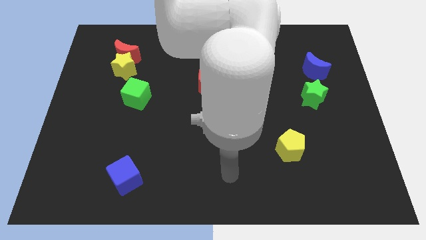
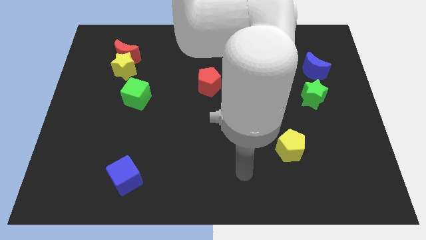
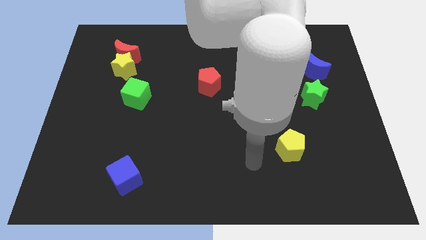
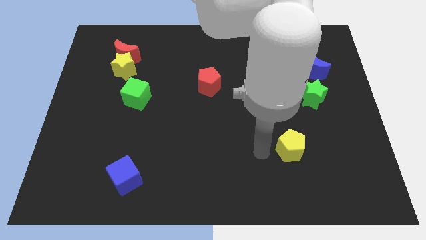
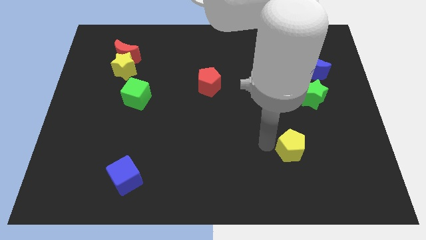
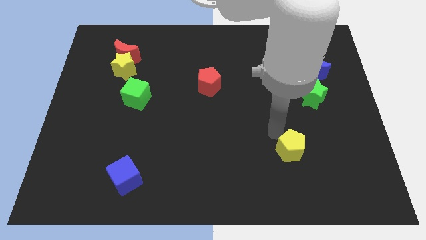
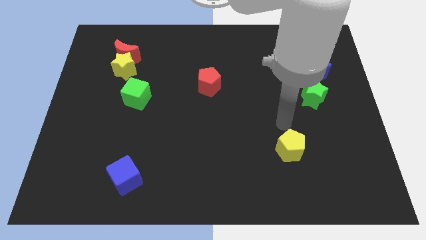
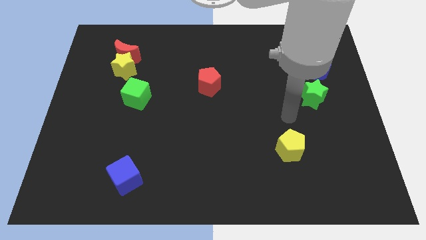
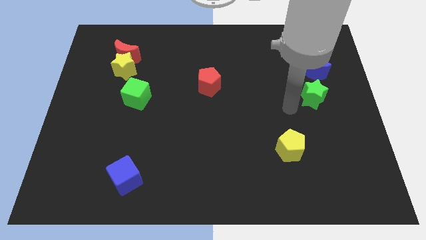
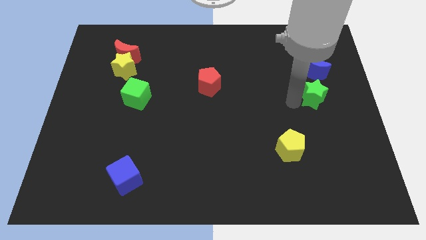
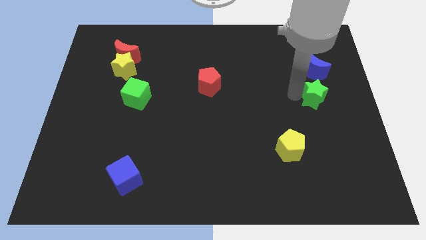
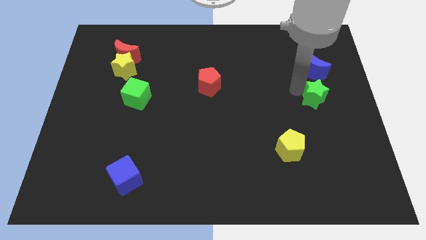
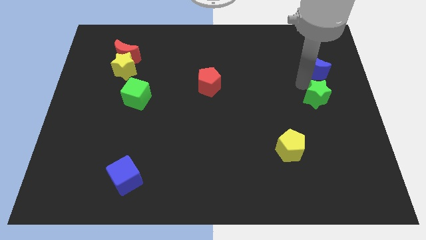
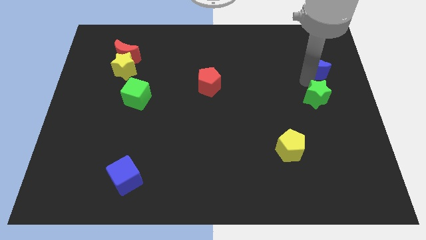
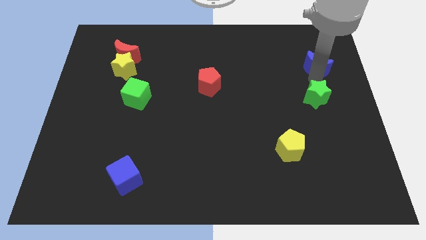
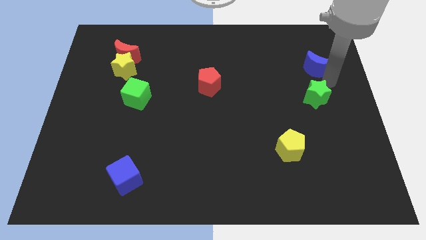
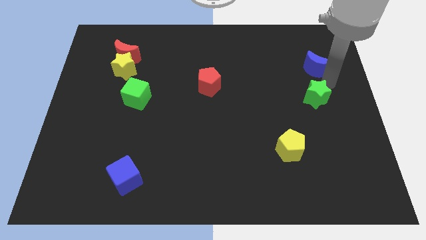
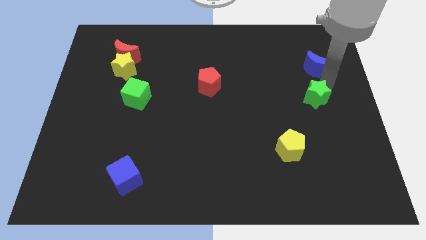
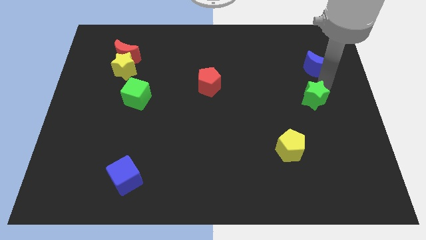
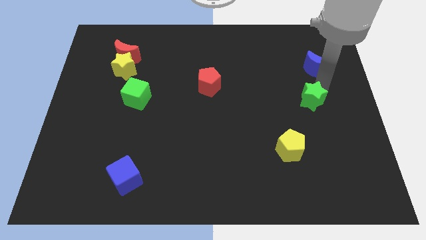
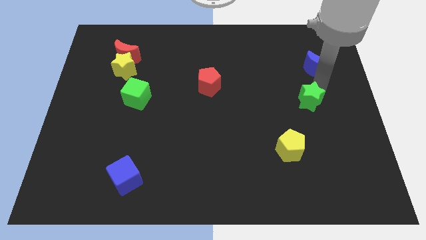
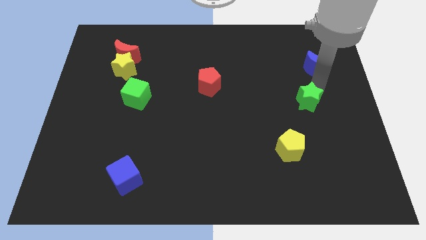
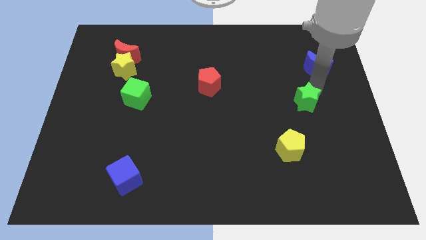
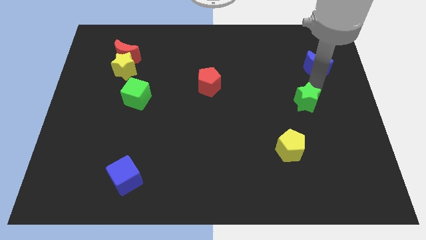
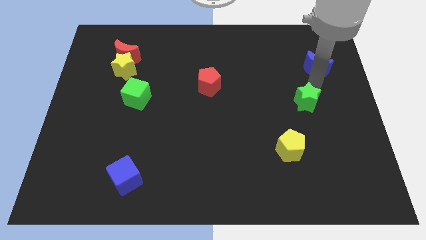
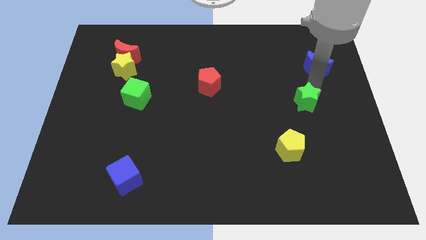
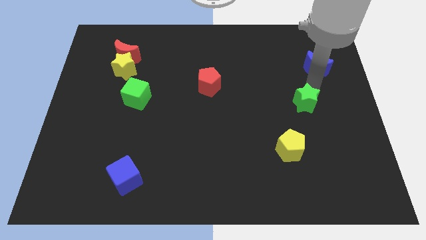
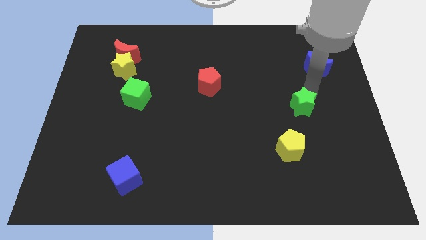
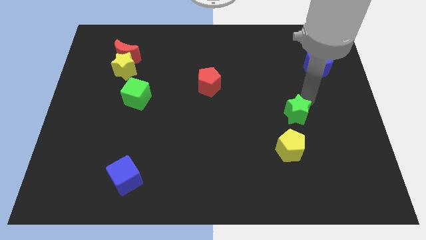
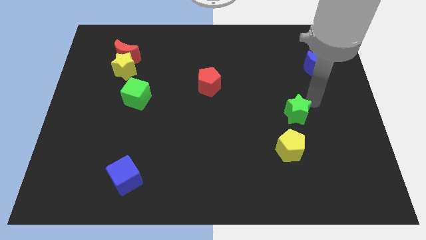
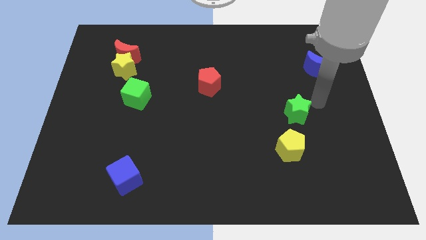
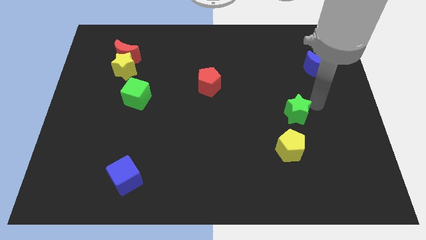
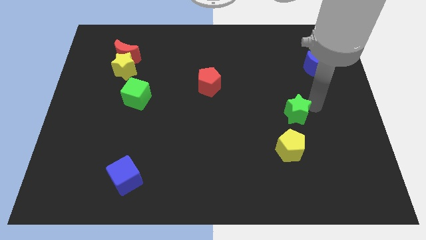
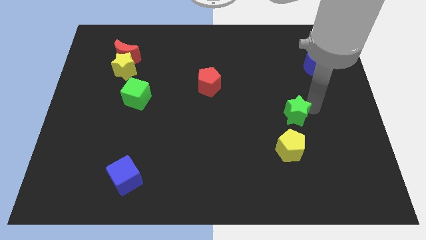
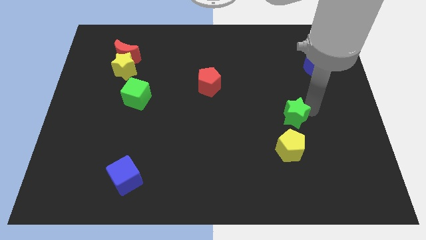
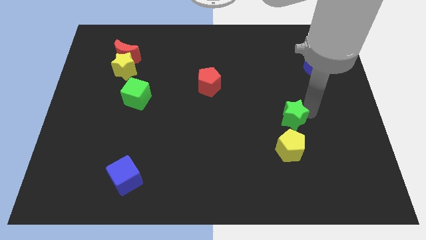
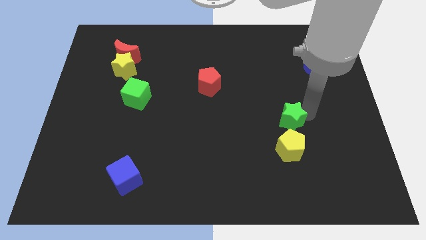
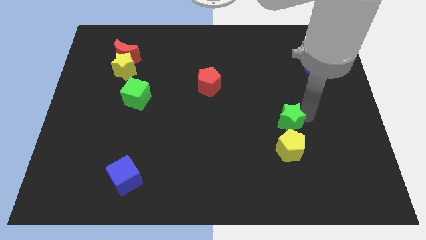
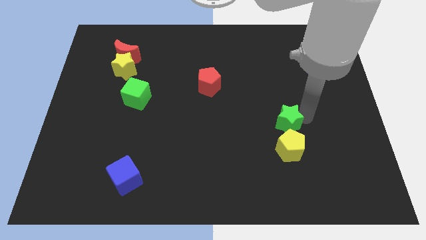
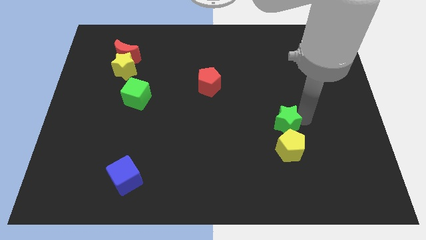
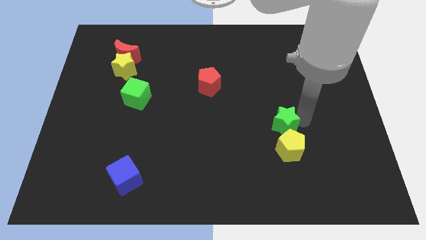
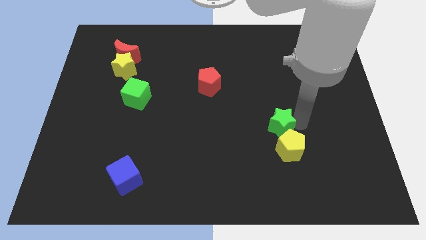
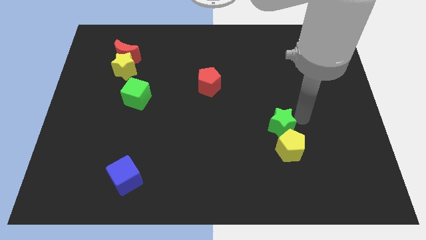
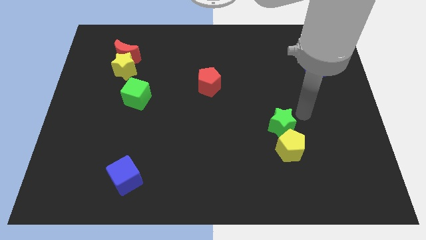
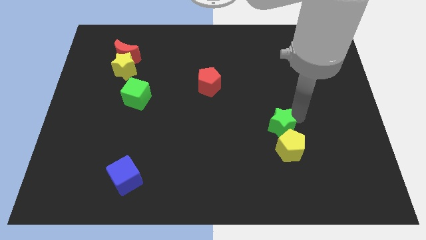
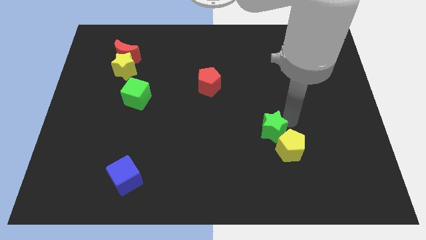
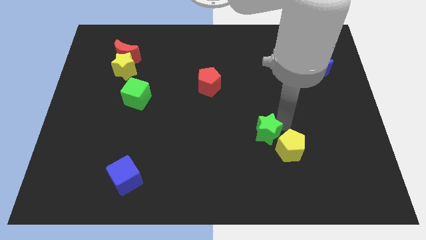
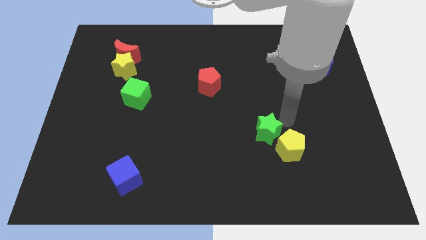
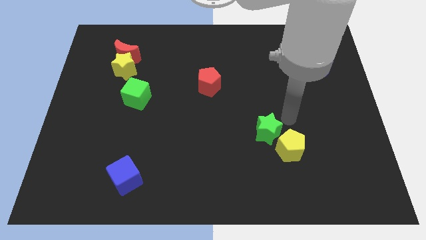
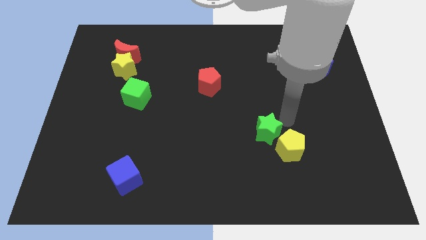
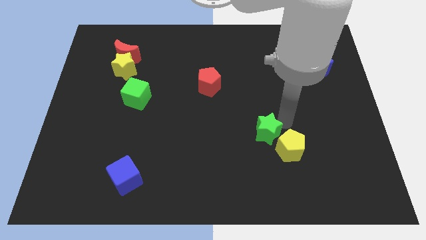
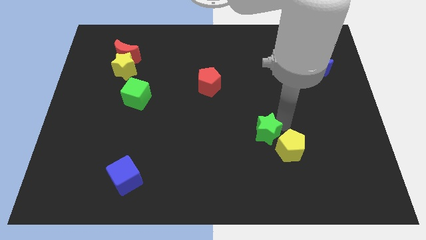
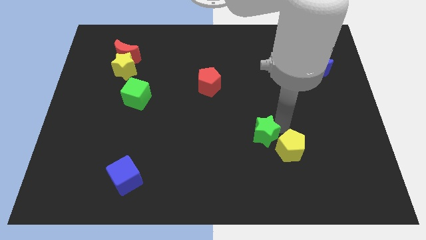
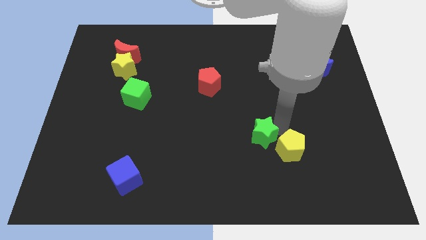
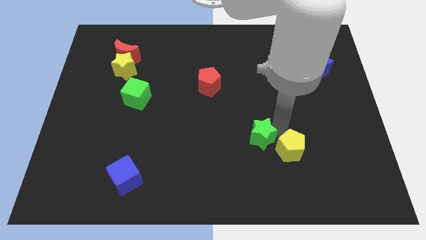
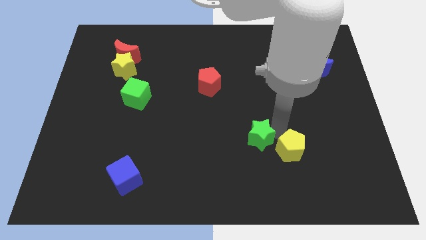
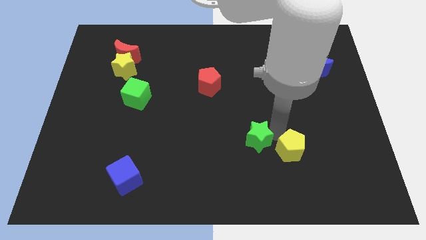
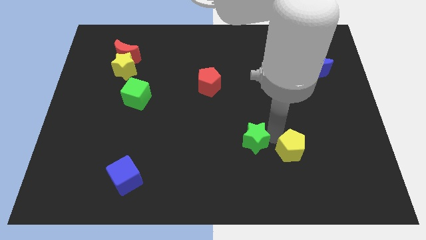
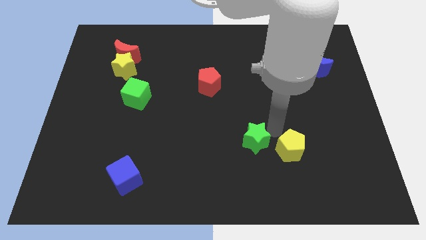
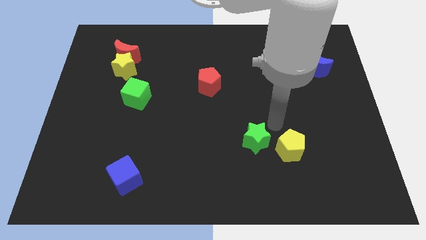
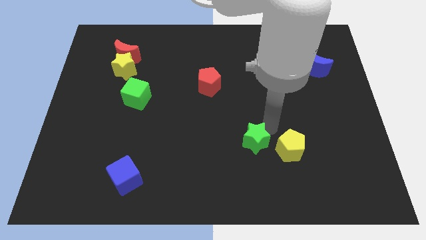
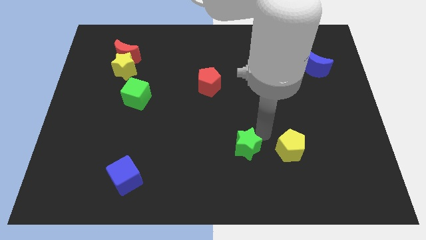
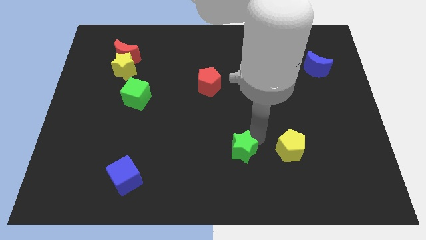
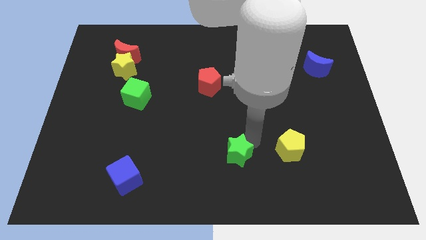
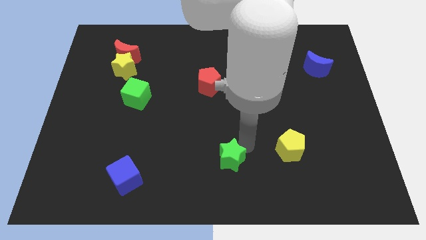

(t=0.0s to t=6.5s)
push the green star to the bottom side
